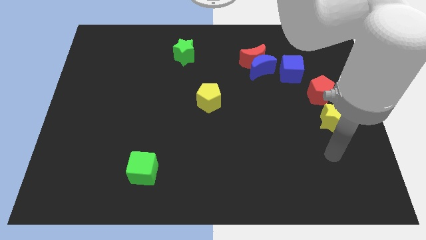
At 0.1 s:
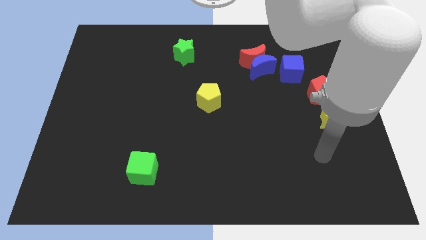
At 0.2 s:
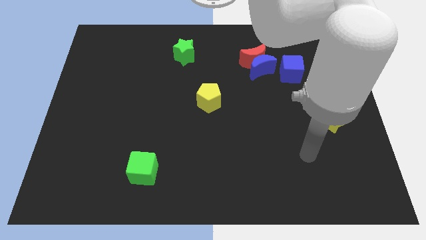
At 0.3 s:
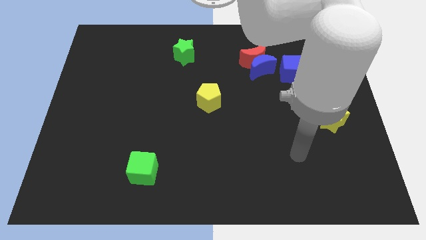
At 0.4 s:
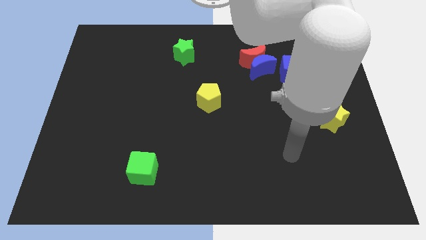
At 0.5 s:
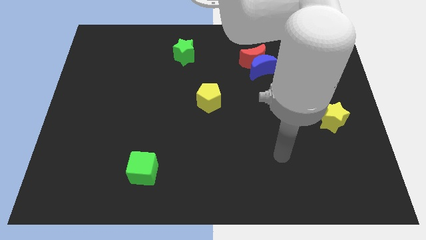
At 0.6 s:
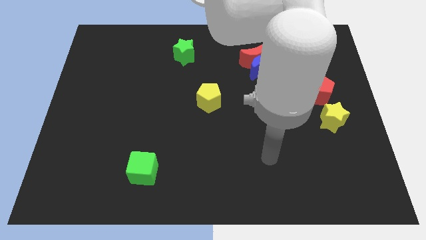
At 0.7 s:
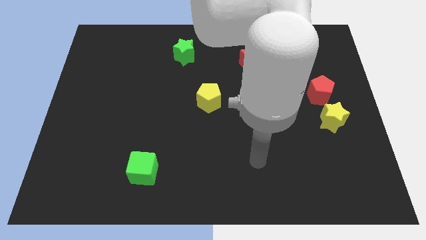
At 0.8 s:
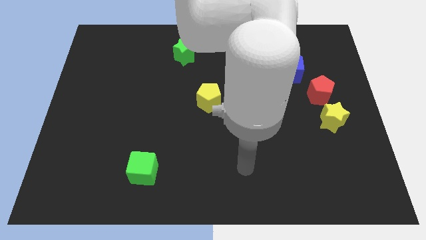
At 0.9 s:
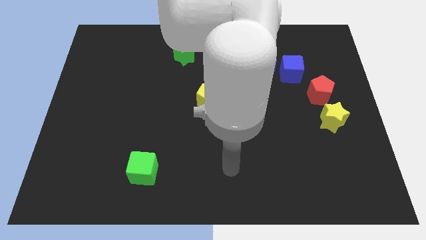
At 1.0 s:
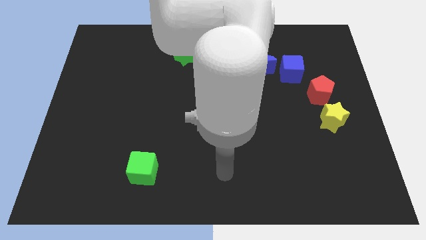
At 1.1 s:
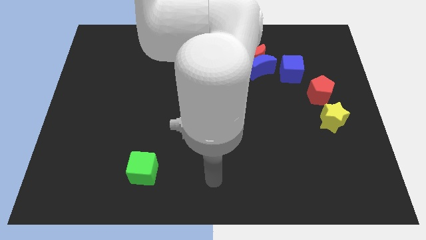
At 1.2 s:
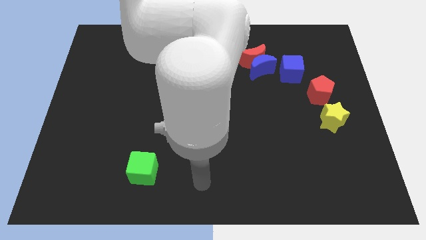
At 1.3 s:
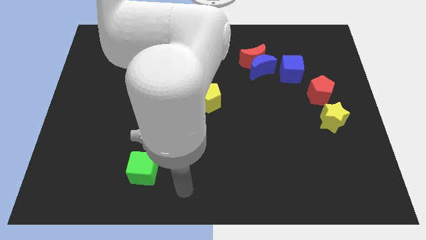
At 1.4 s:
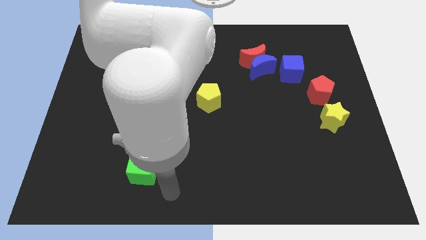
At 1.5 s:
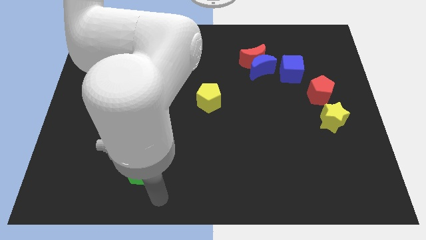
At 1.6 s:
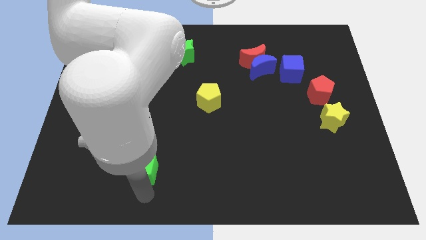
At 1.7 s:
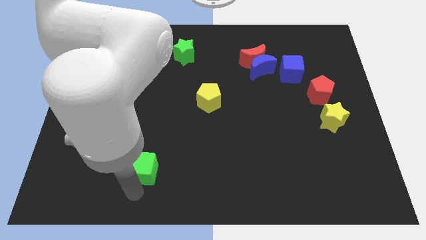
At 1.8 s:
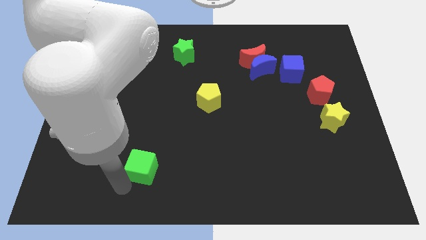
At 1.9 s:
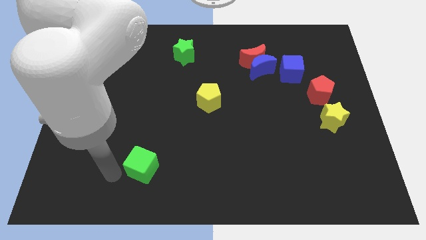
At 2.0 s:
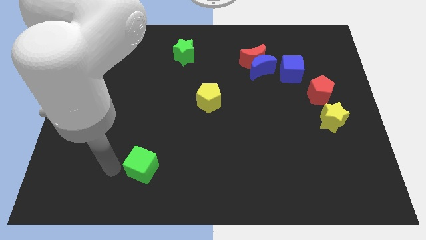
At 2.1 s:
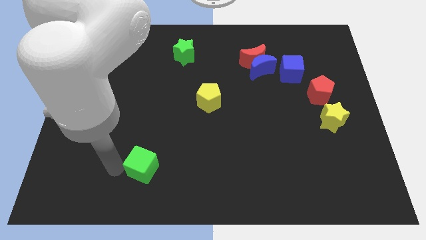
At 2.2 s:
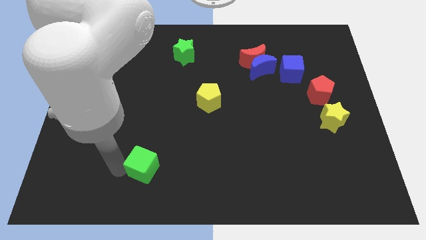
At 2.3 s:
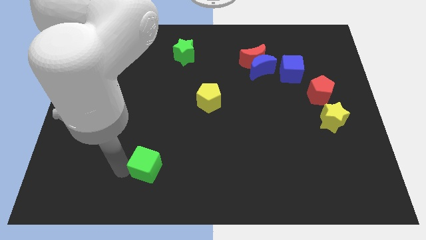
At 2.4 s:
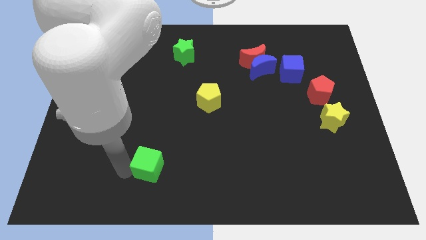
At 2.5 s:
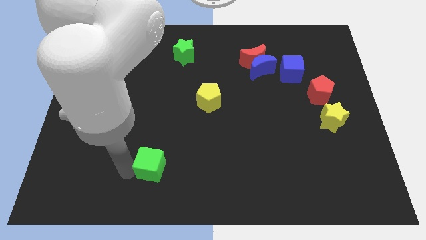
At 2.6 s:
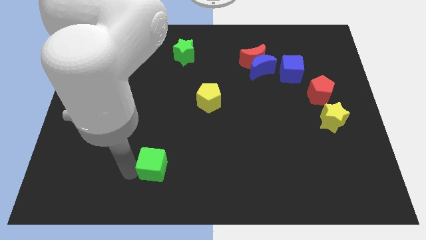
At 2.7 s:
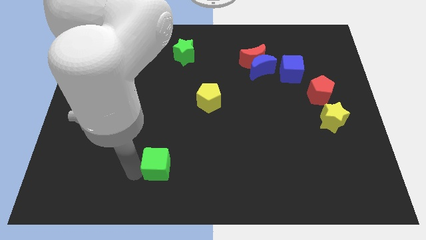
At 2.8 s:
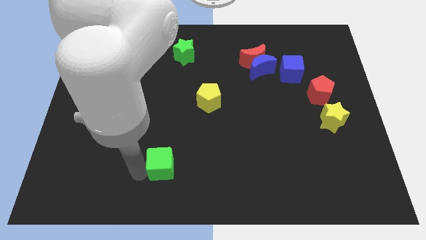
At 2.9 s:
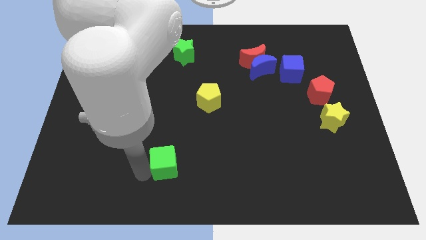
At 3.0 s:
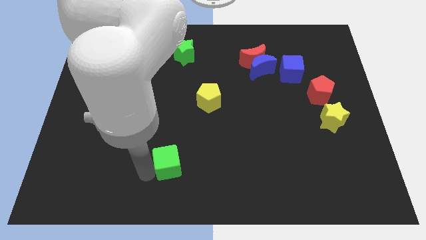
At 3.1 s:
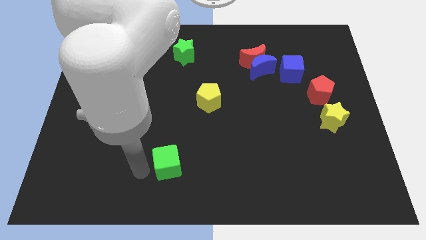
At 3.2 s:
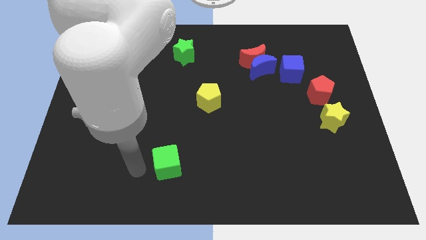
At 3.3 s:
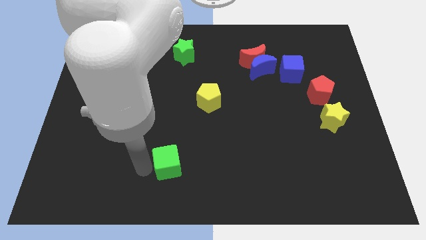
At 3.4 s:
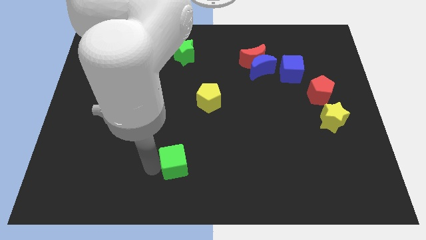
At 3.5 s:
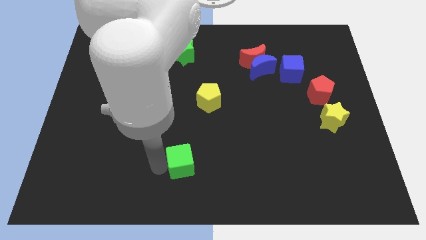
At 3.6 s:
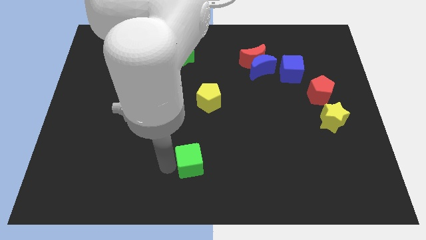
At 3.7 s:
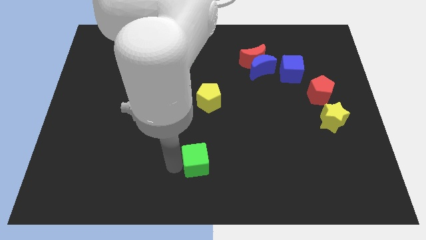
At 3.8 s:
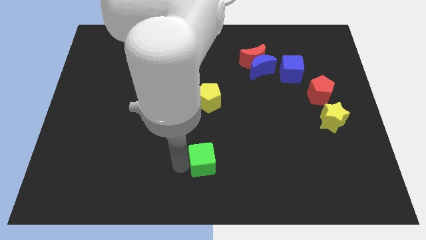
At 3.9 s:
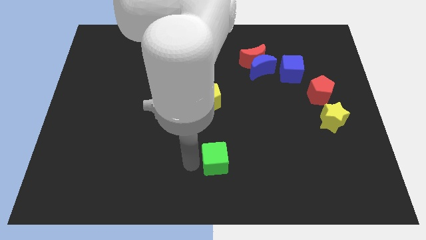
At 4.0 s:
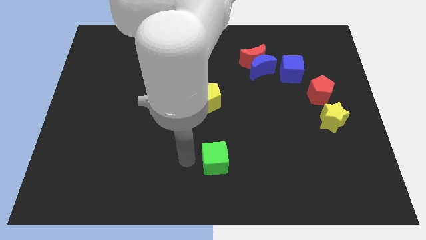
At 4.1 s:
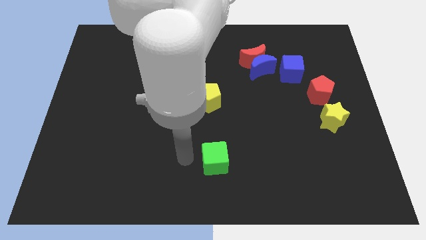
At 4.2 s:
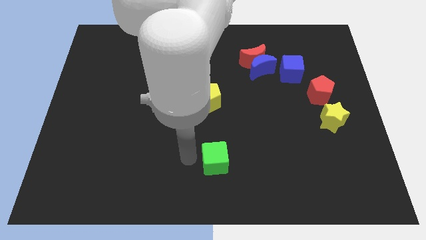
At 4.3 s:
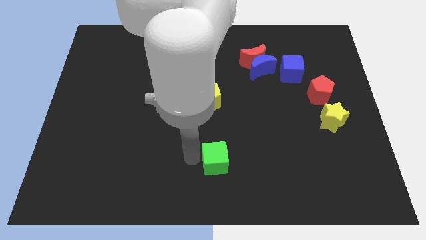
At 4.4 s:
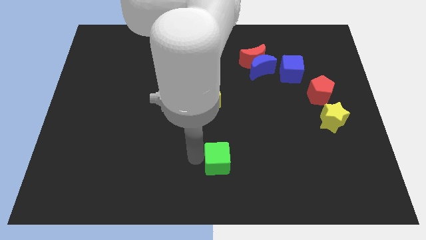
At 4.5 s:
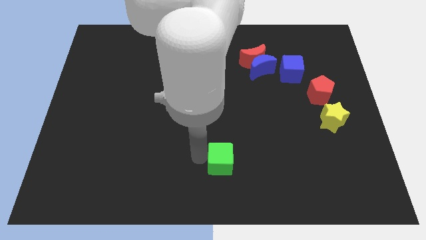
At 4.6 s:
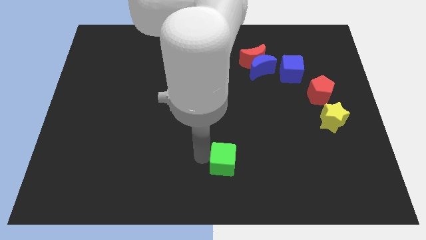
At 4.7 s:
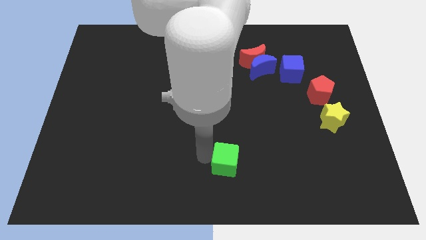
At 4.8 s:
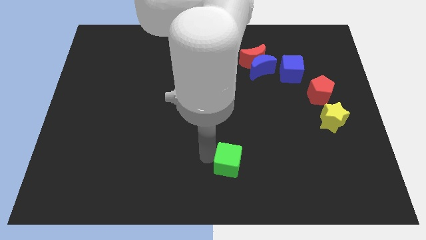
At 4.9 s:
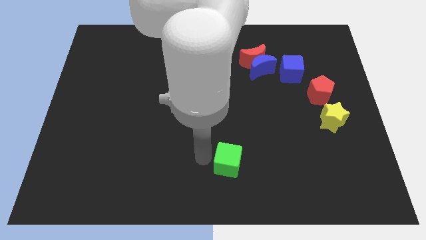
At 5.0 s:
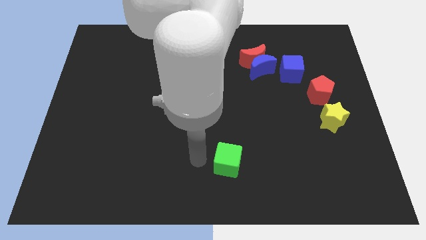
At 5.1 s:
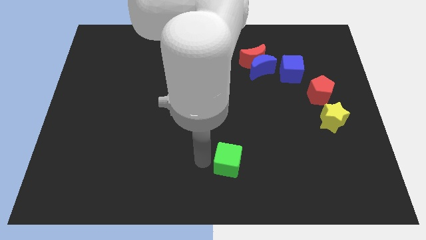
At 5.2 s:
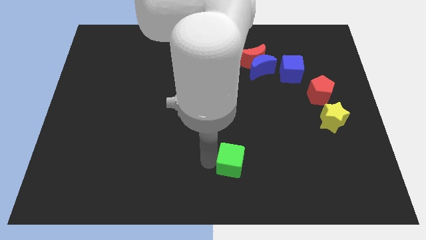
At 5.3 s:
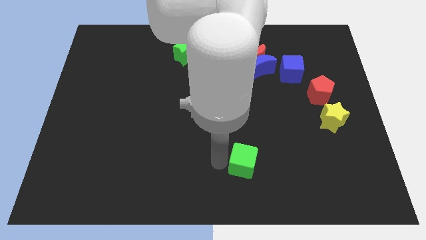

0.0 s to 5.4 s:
slide the green cube to the right

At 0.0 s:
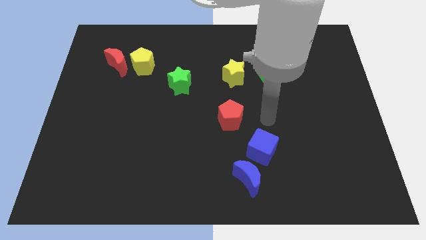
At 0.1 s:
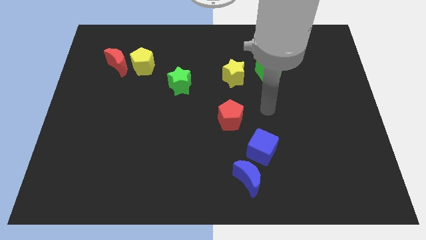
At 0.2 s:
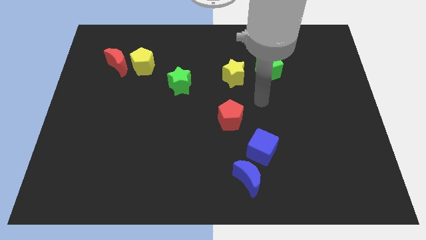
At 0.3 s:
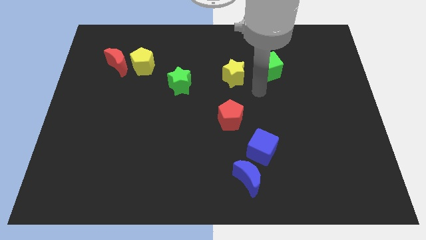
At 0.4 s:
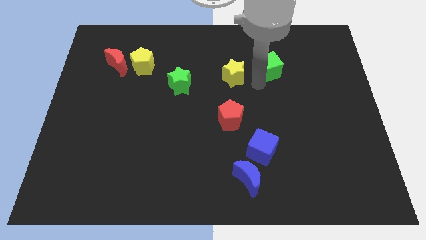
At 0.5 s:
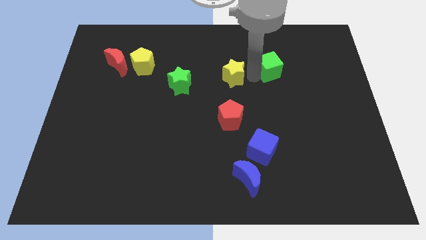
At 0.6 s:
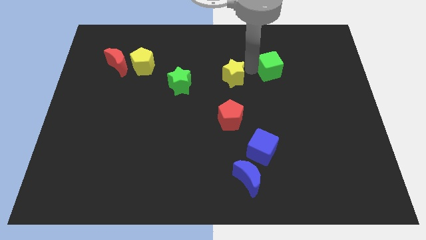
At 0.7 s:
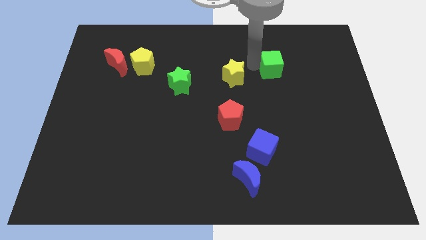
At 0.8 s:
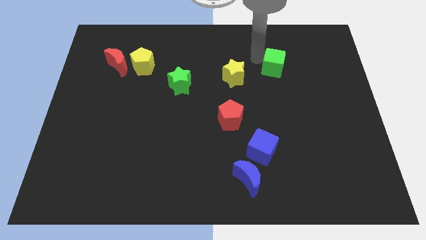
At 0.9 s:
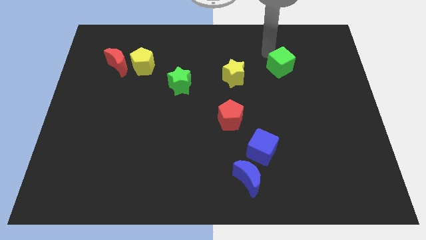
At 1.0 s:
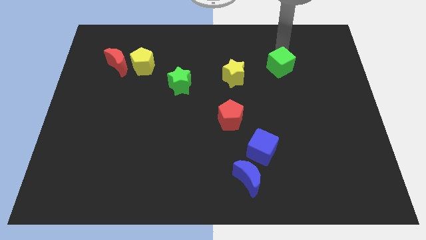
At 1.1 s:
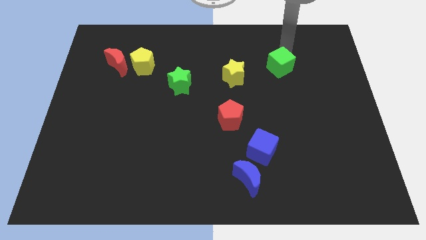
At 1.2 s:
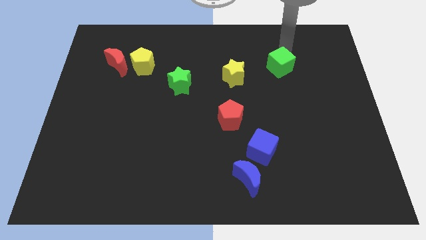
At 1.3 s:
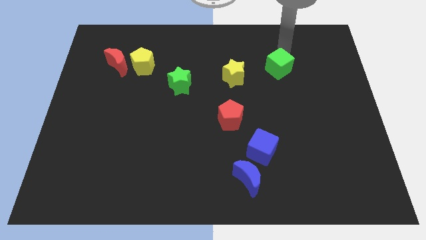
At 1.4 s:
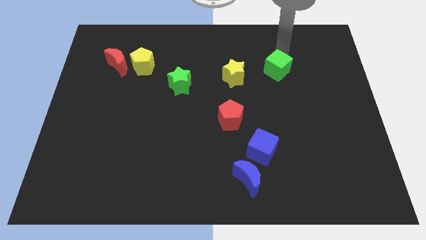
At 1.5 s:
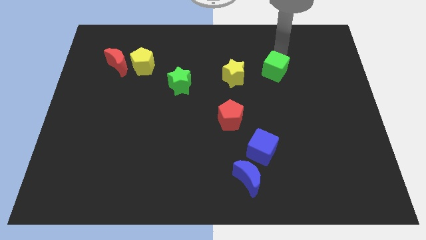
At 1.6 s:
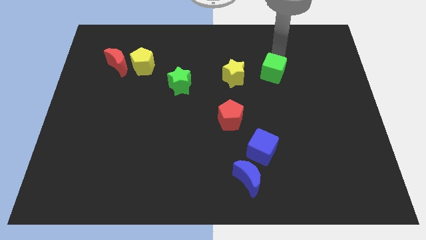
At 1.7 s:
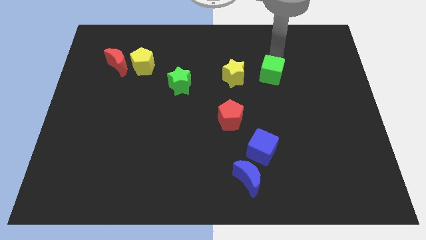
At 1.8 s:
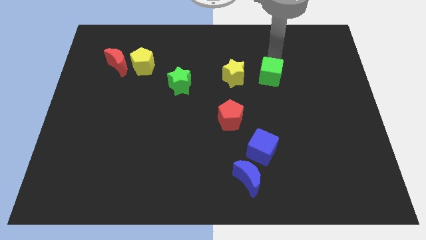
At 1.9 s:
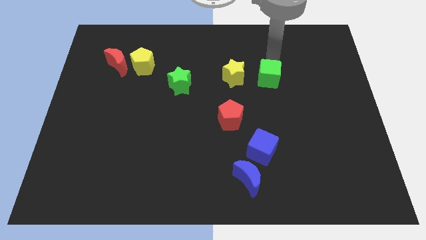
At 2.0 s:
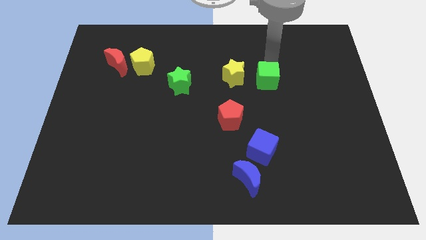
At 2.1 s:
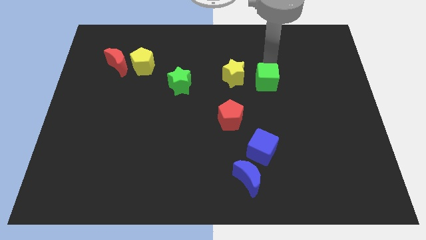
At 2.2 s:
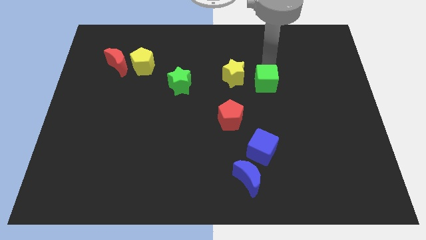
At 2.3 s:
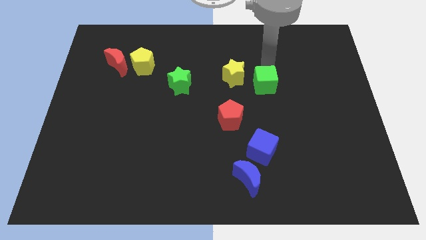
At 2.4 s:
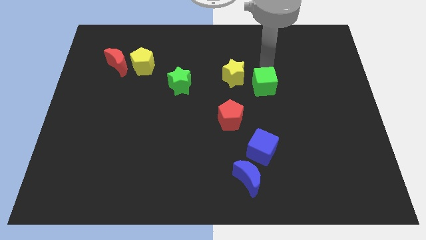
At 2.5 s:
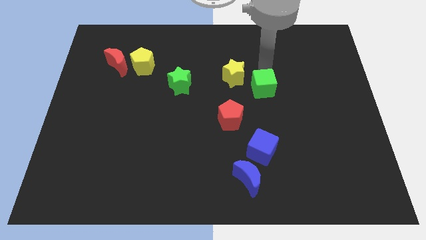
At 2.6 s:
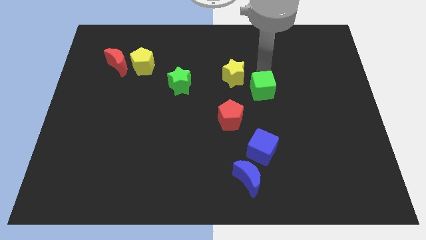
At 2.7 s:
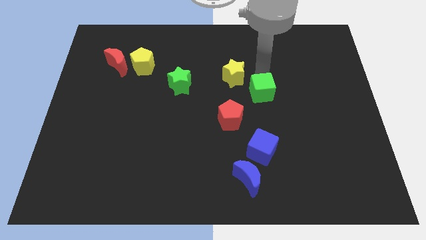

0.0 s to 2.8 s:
slide the green cube somewhat downwards

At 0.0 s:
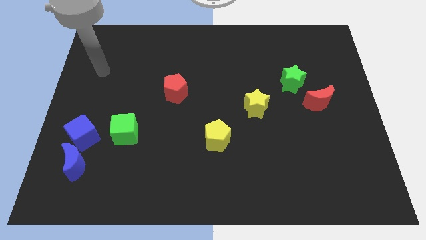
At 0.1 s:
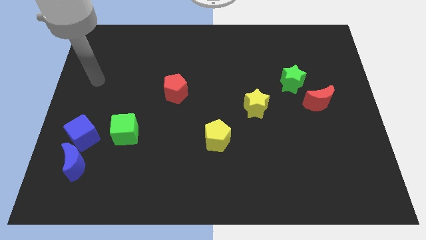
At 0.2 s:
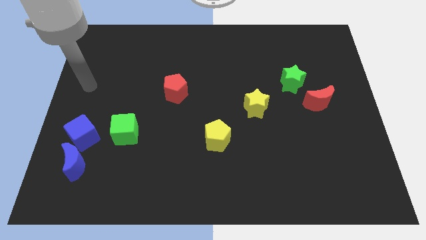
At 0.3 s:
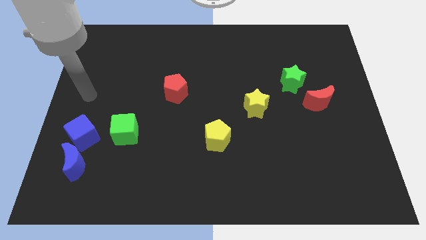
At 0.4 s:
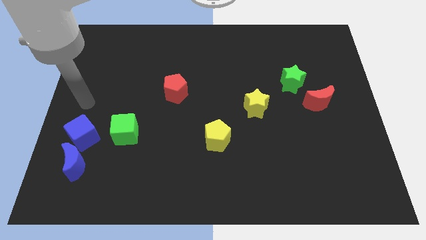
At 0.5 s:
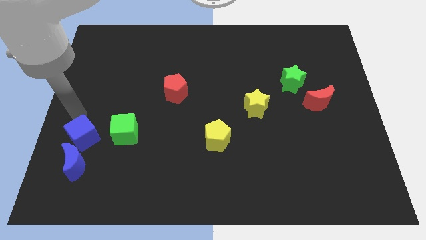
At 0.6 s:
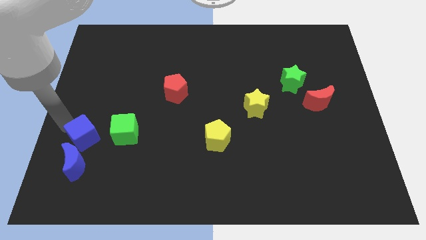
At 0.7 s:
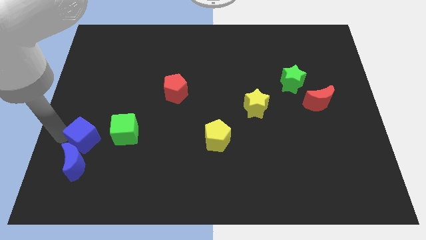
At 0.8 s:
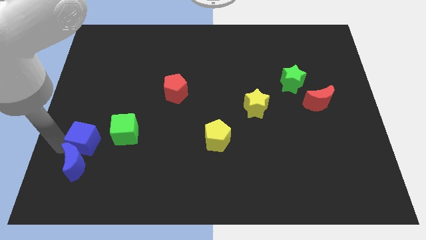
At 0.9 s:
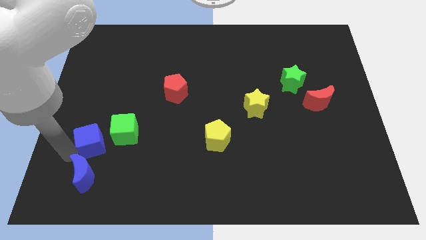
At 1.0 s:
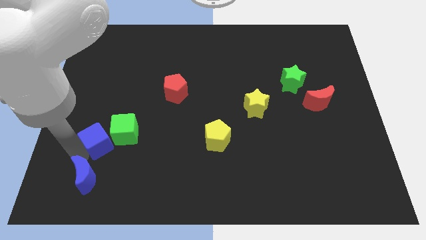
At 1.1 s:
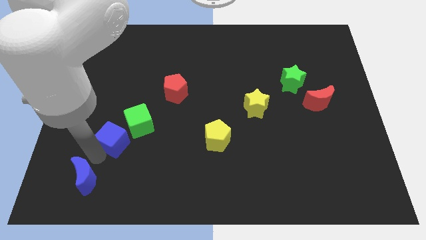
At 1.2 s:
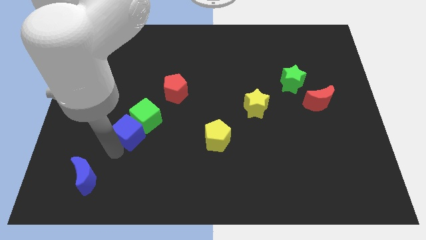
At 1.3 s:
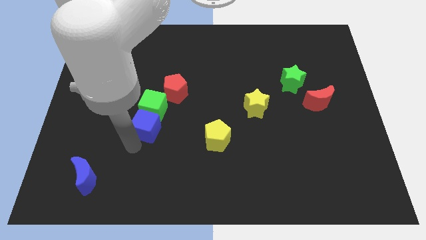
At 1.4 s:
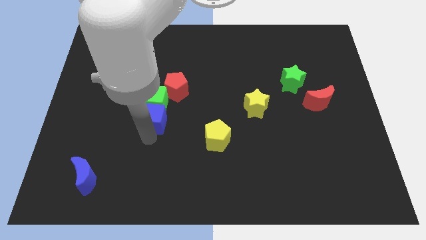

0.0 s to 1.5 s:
slightly slide the green cube upwards
